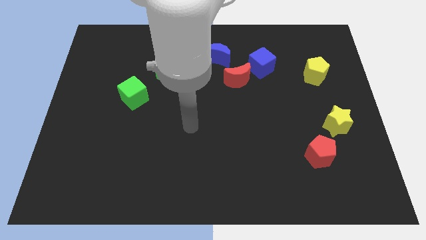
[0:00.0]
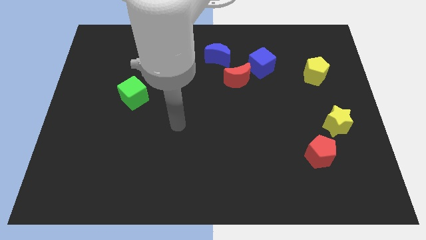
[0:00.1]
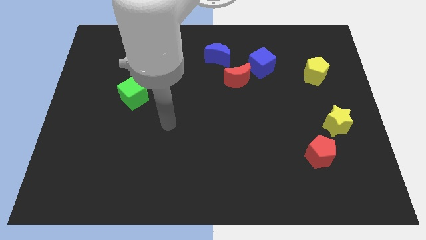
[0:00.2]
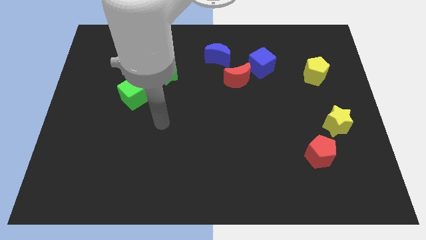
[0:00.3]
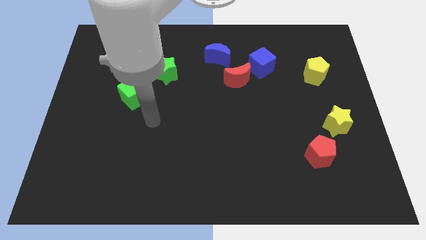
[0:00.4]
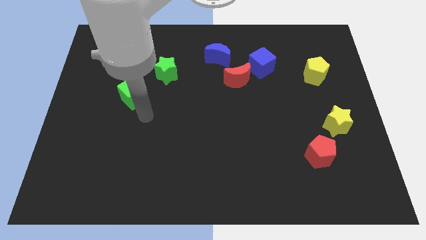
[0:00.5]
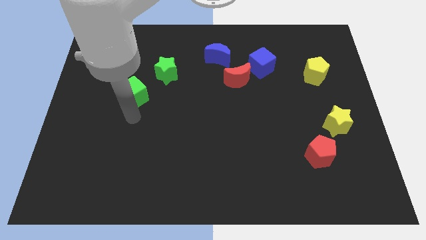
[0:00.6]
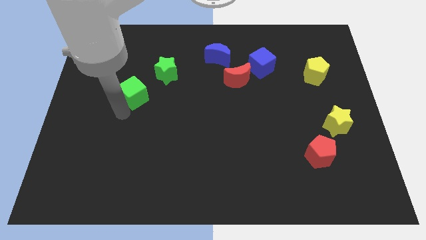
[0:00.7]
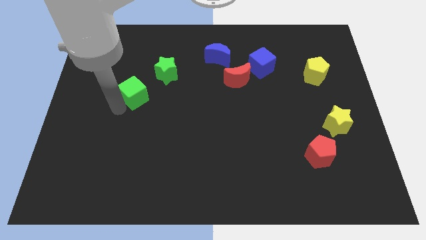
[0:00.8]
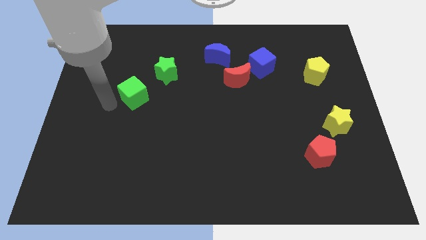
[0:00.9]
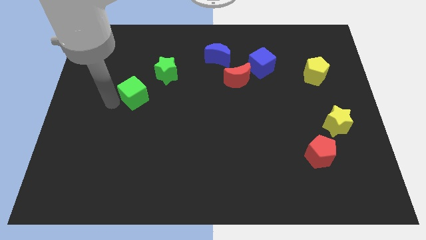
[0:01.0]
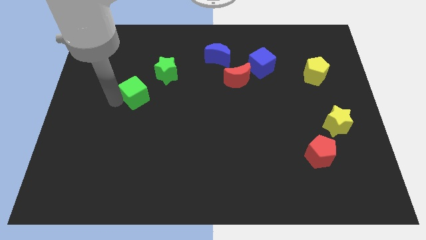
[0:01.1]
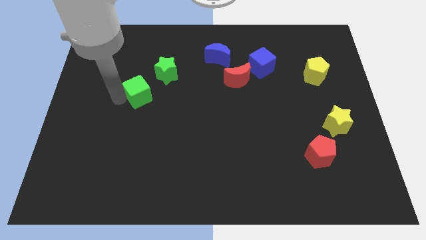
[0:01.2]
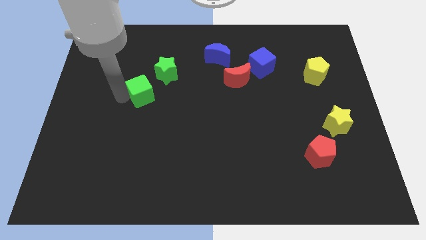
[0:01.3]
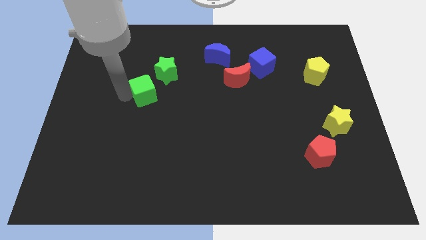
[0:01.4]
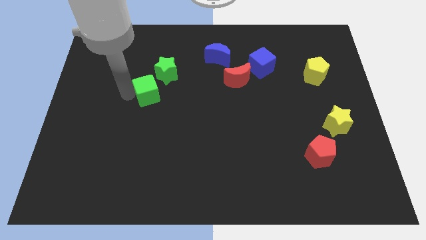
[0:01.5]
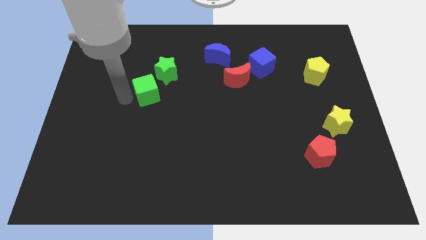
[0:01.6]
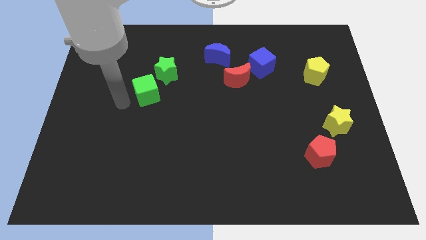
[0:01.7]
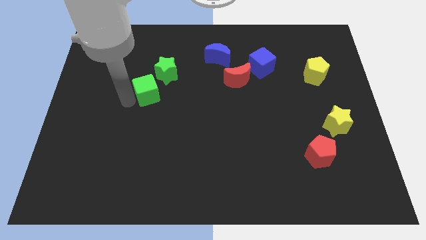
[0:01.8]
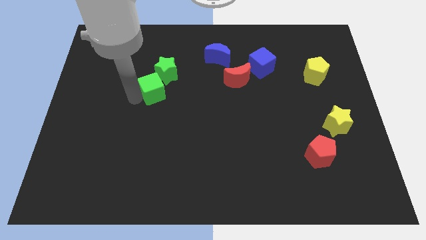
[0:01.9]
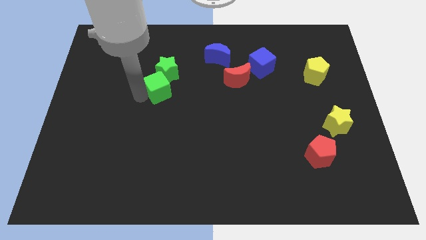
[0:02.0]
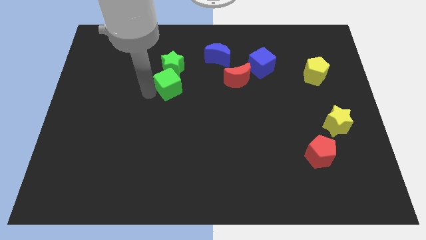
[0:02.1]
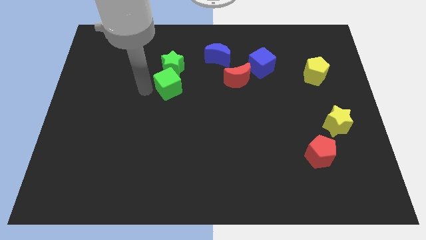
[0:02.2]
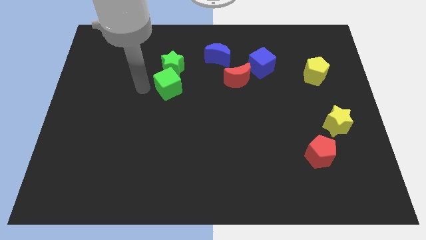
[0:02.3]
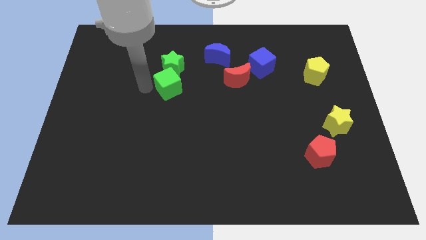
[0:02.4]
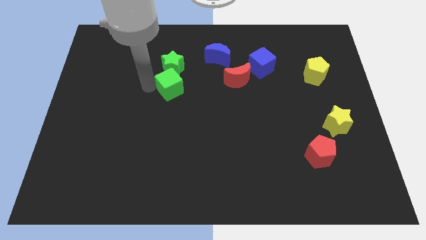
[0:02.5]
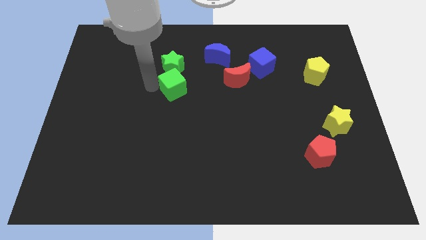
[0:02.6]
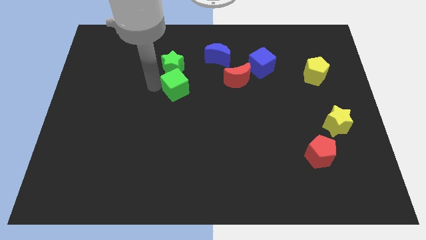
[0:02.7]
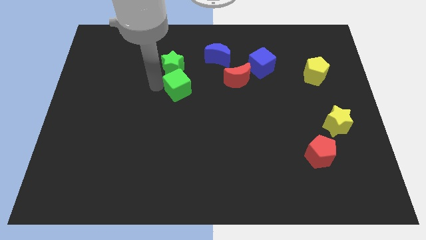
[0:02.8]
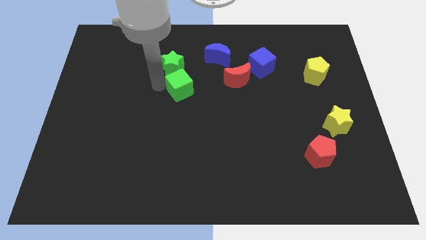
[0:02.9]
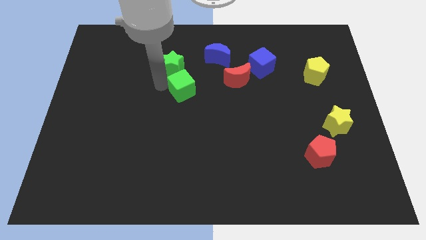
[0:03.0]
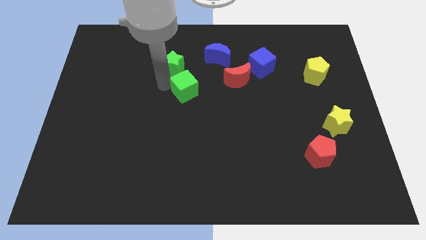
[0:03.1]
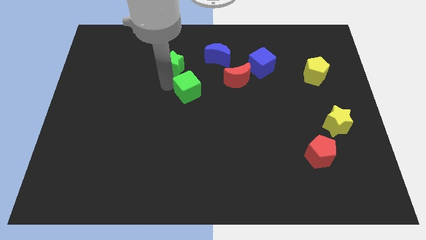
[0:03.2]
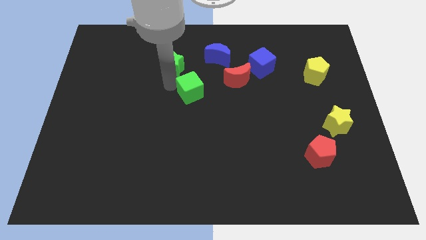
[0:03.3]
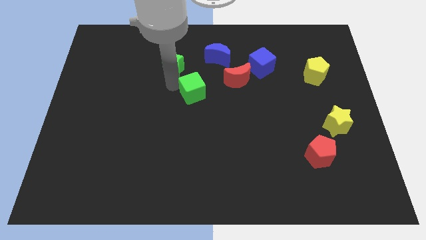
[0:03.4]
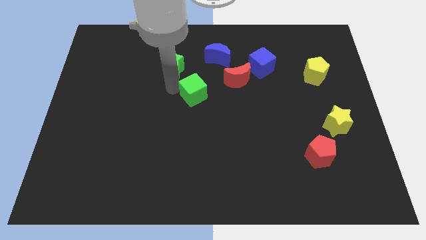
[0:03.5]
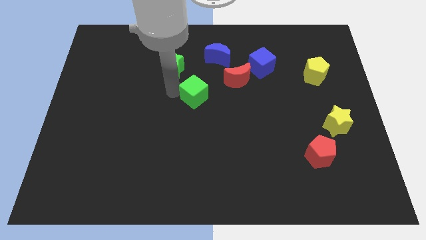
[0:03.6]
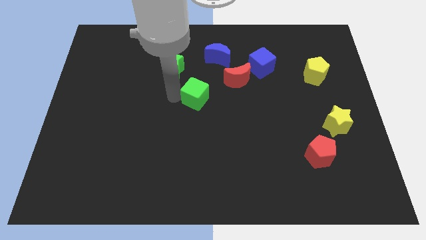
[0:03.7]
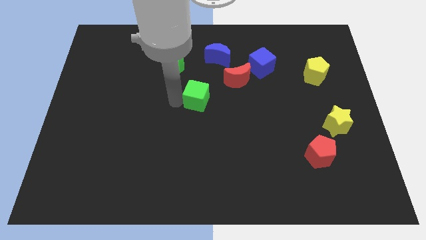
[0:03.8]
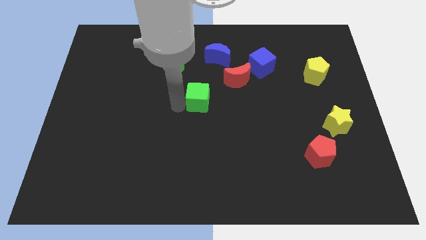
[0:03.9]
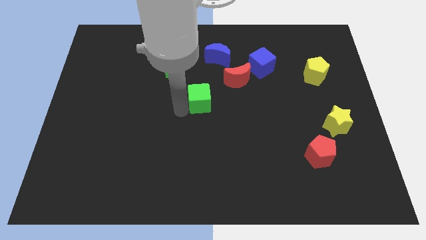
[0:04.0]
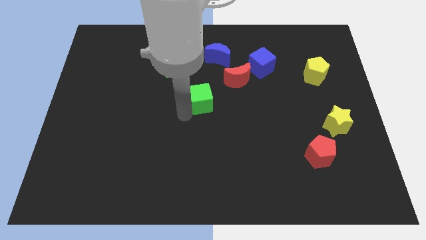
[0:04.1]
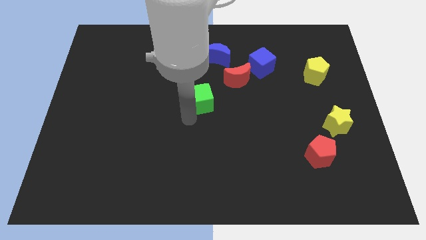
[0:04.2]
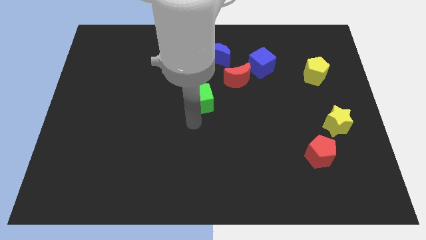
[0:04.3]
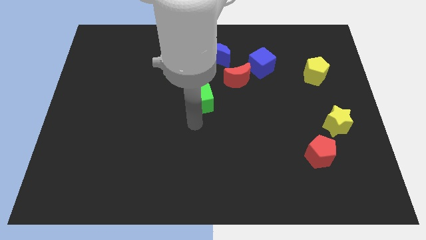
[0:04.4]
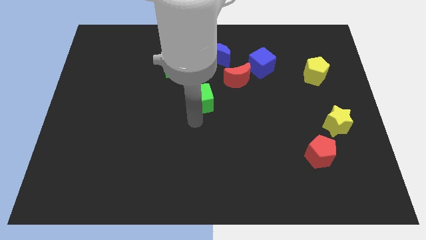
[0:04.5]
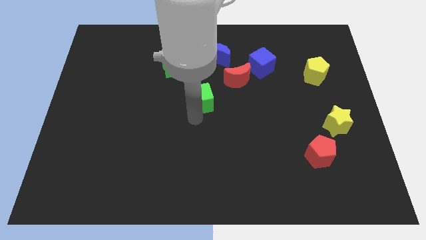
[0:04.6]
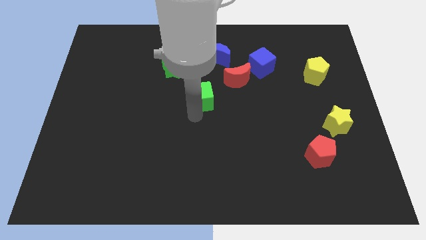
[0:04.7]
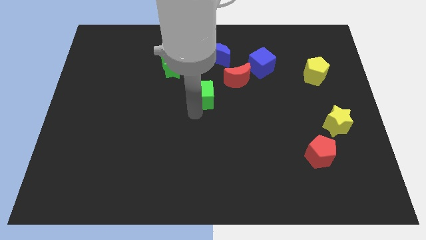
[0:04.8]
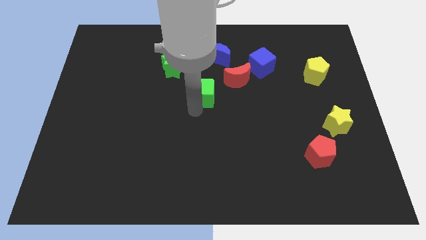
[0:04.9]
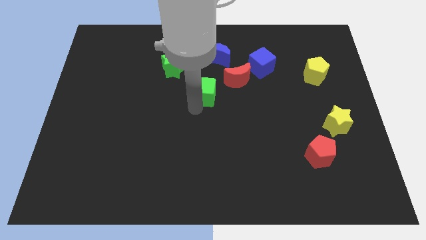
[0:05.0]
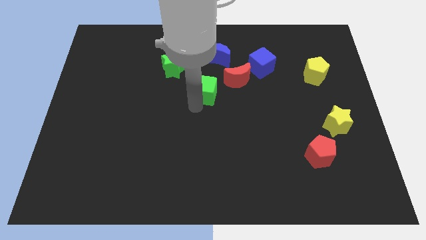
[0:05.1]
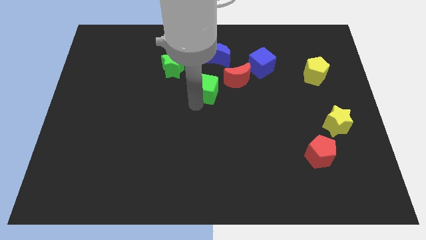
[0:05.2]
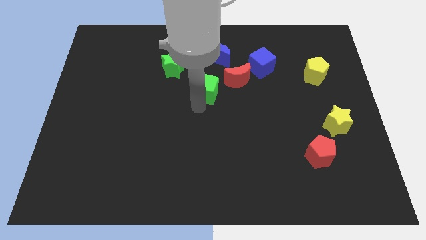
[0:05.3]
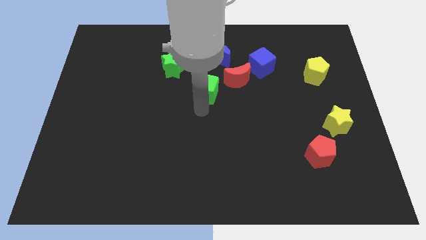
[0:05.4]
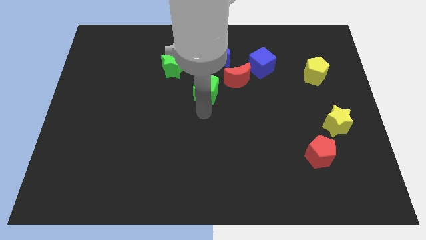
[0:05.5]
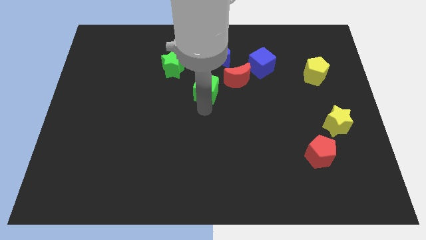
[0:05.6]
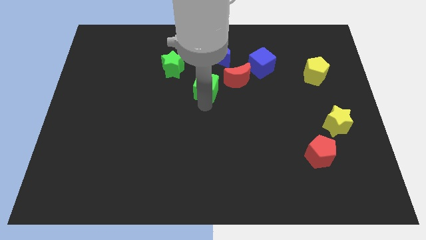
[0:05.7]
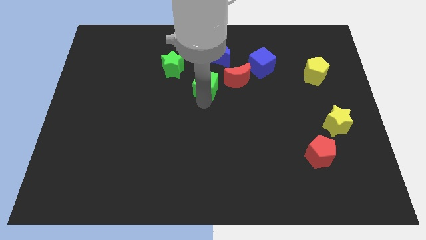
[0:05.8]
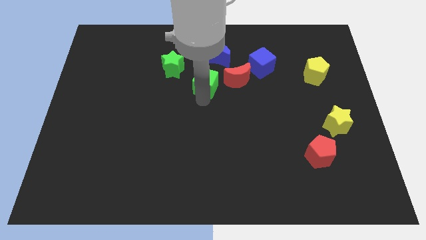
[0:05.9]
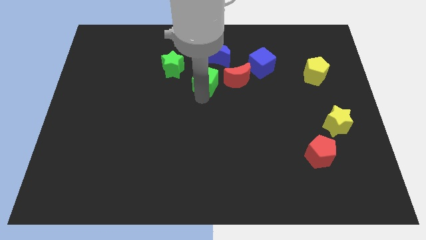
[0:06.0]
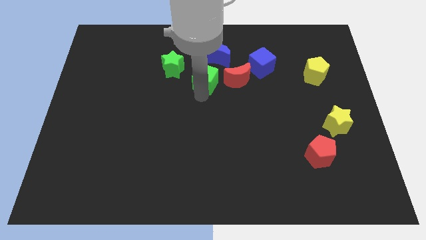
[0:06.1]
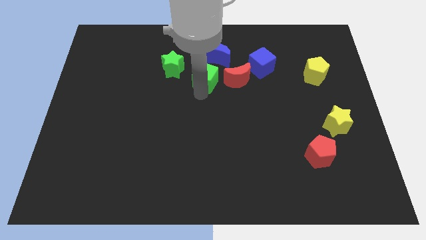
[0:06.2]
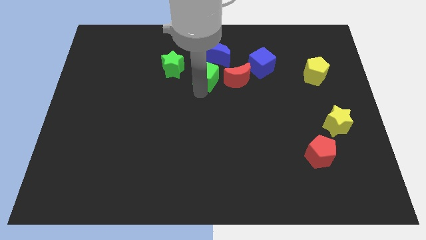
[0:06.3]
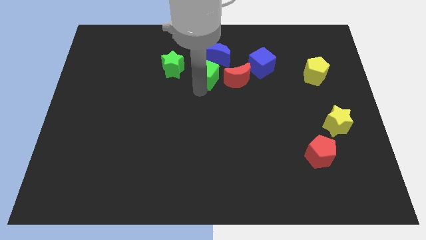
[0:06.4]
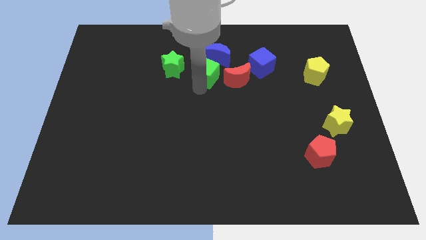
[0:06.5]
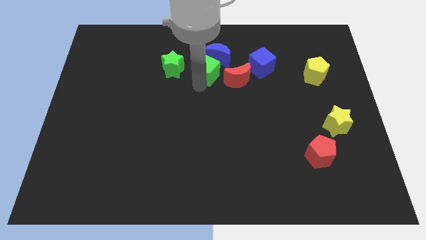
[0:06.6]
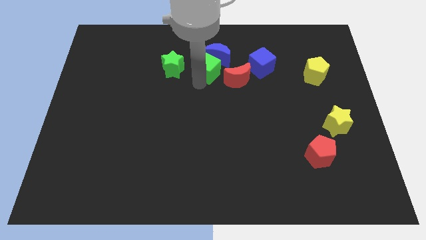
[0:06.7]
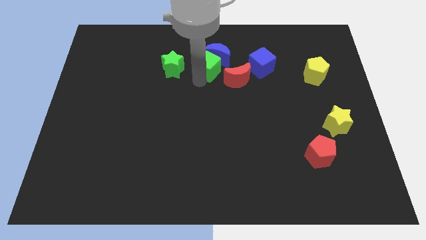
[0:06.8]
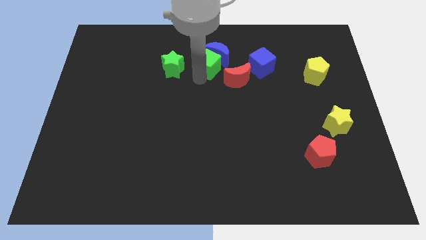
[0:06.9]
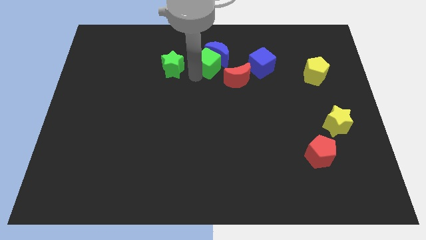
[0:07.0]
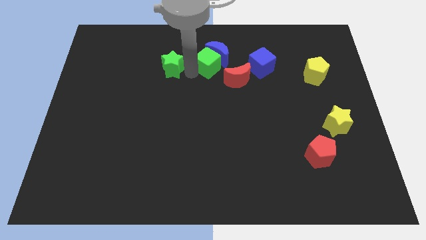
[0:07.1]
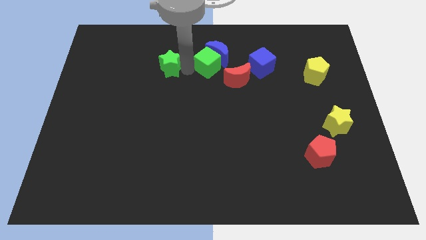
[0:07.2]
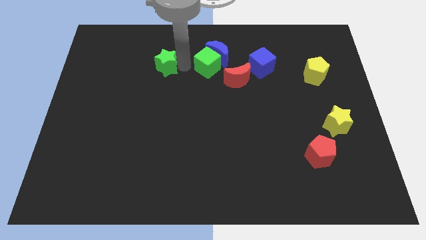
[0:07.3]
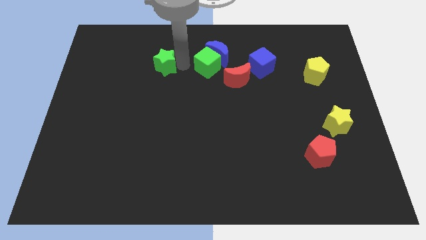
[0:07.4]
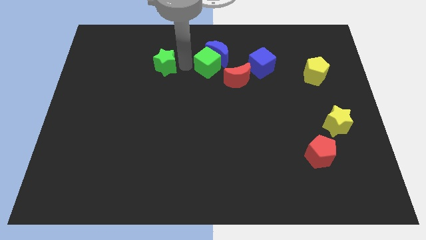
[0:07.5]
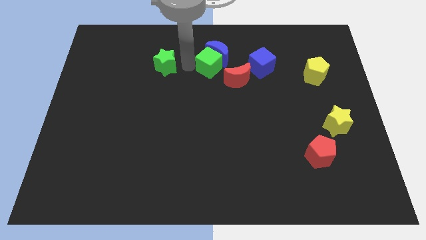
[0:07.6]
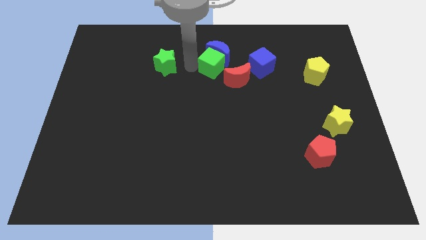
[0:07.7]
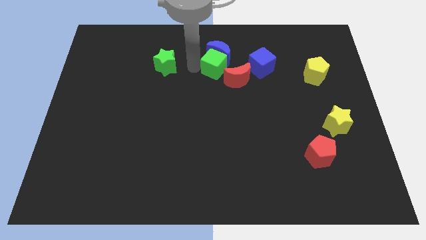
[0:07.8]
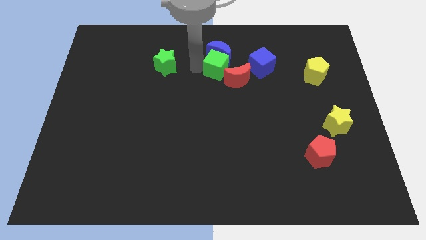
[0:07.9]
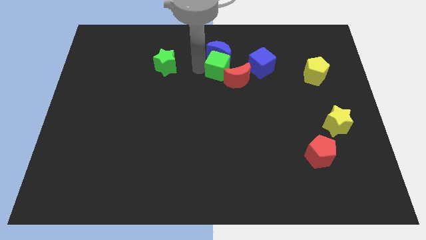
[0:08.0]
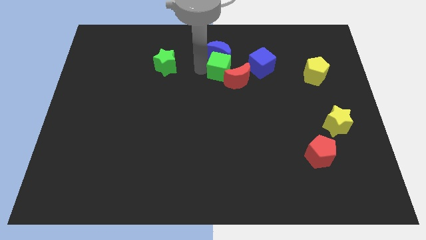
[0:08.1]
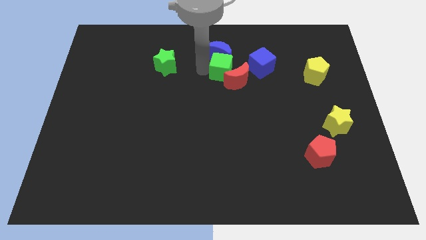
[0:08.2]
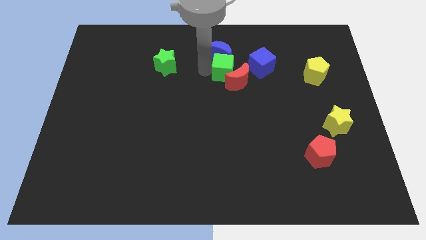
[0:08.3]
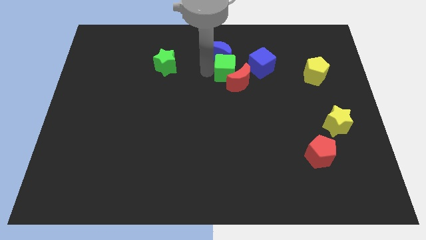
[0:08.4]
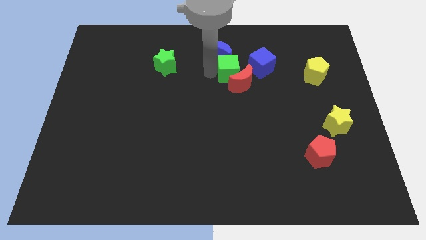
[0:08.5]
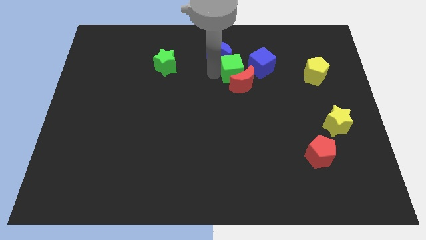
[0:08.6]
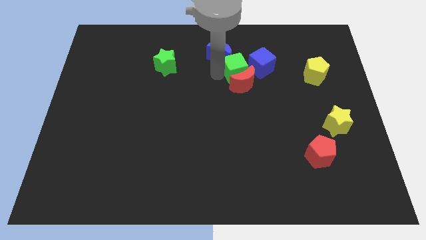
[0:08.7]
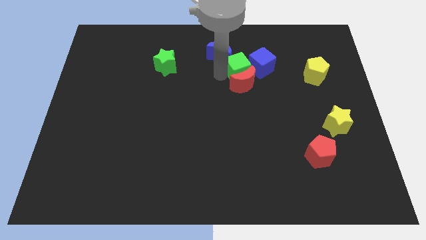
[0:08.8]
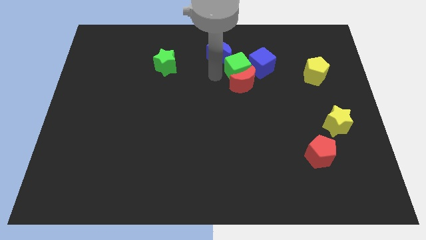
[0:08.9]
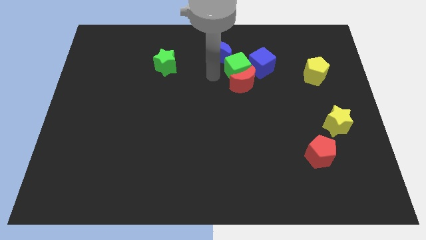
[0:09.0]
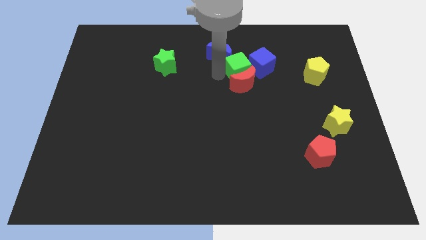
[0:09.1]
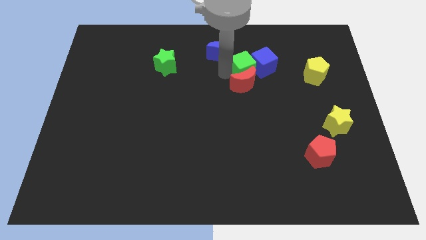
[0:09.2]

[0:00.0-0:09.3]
push the green cube to the blue cube
